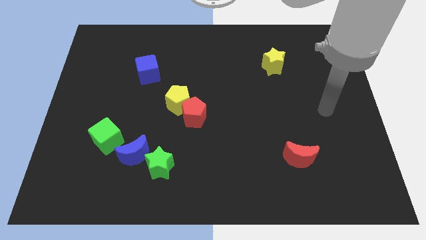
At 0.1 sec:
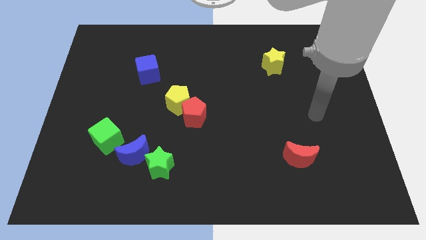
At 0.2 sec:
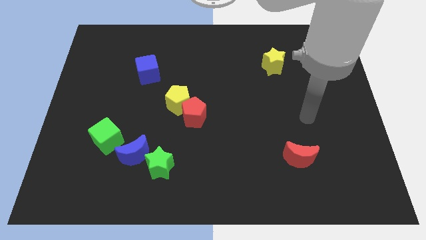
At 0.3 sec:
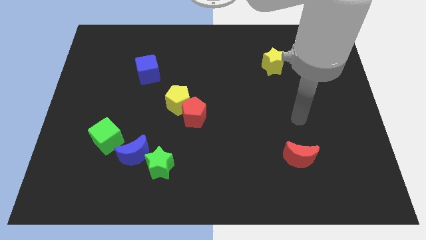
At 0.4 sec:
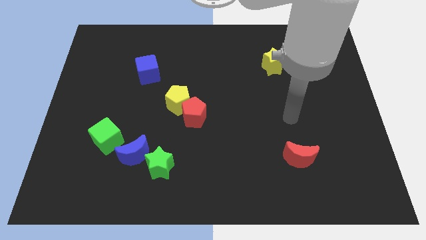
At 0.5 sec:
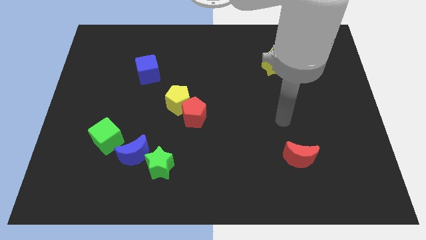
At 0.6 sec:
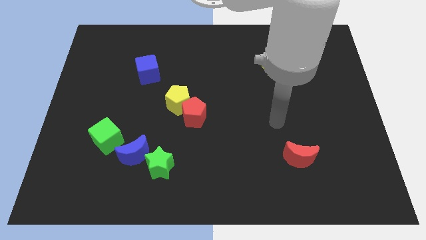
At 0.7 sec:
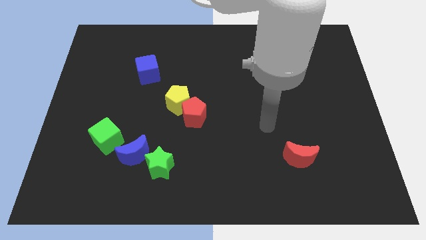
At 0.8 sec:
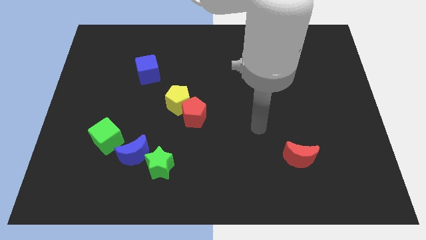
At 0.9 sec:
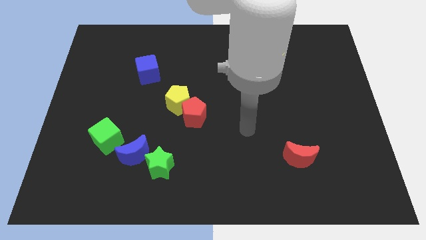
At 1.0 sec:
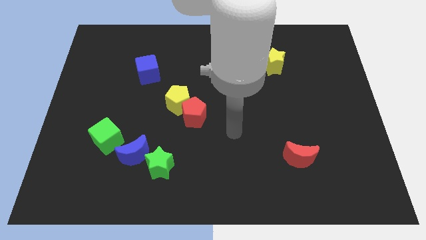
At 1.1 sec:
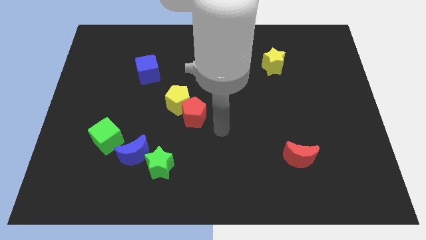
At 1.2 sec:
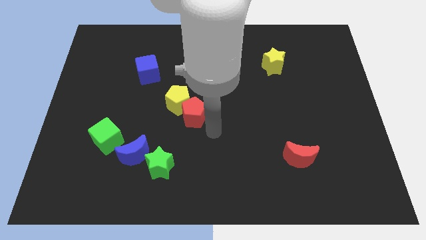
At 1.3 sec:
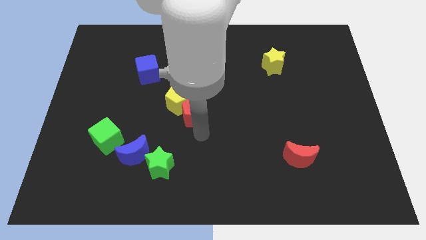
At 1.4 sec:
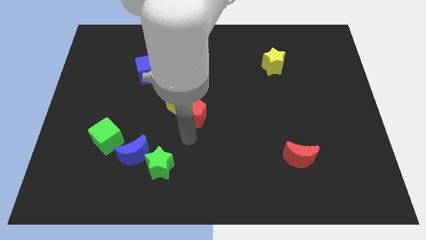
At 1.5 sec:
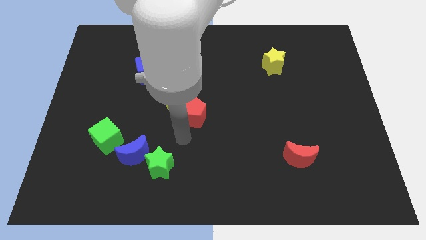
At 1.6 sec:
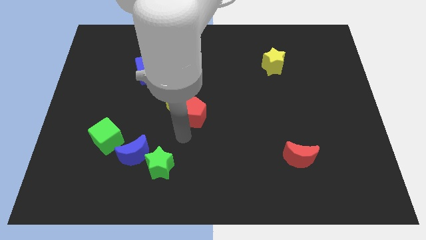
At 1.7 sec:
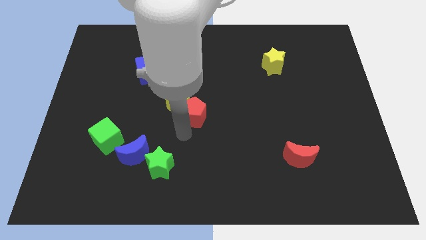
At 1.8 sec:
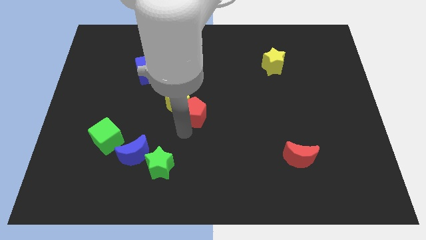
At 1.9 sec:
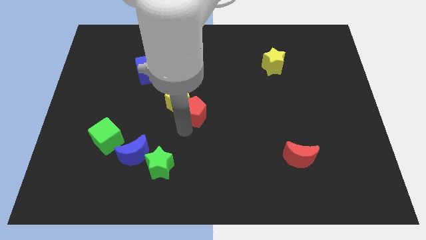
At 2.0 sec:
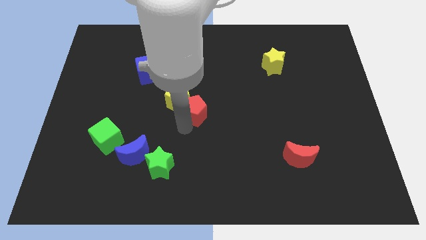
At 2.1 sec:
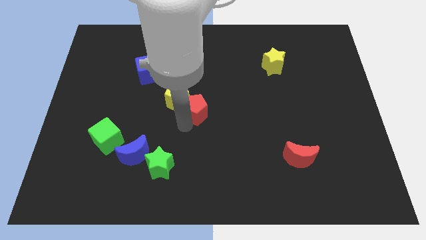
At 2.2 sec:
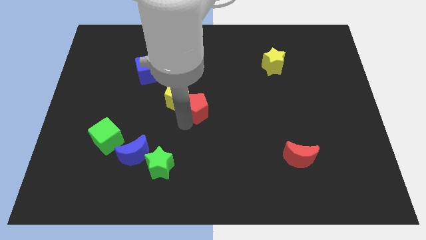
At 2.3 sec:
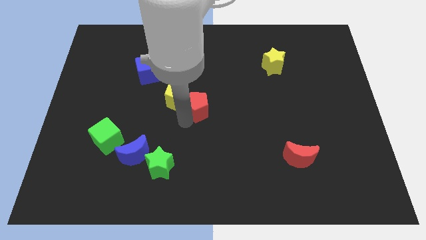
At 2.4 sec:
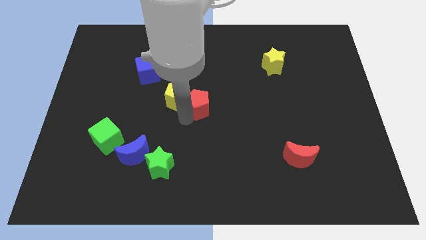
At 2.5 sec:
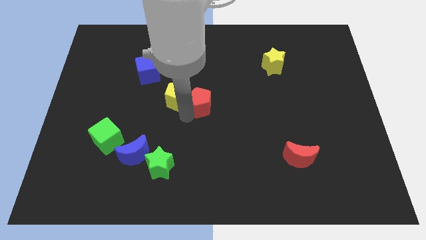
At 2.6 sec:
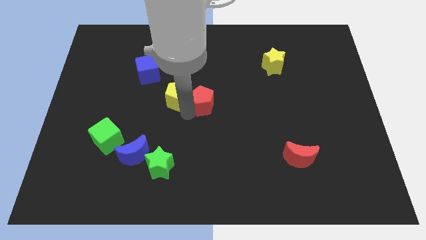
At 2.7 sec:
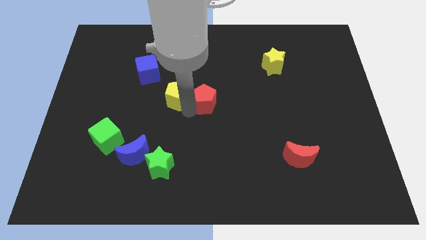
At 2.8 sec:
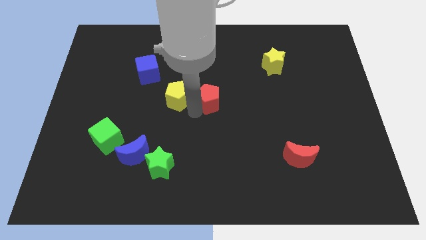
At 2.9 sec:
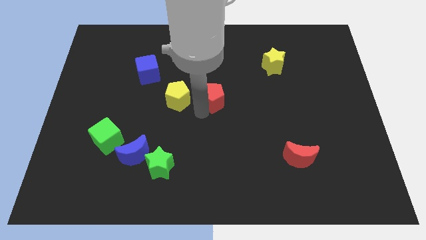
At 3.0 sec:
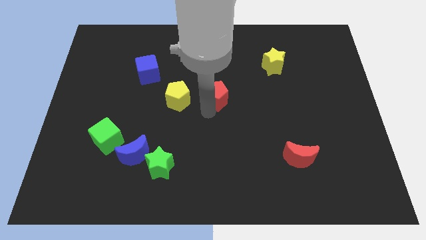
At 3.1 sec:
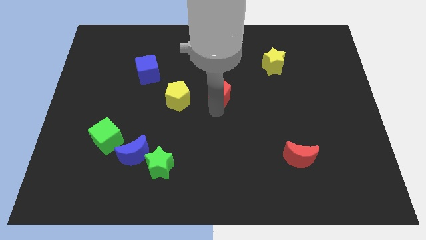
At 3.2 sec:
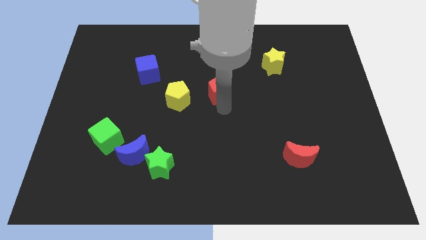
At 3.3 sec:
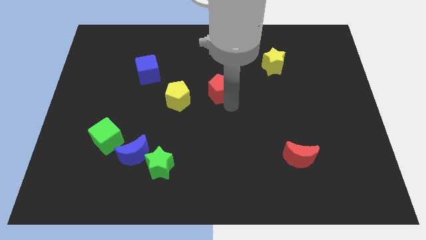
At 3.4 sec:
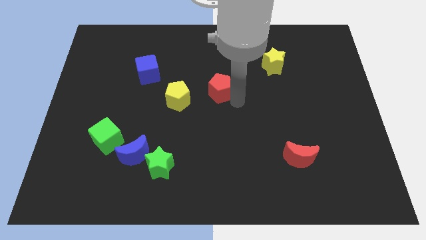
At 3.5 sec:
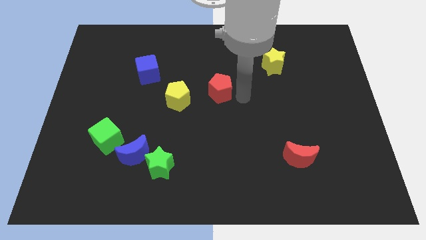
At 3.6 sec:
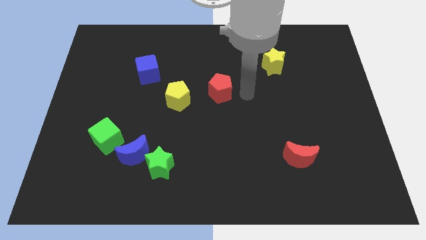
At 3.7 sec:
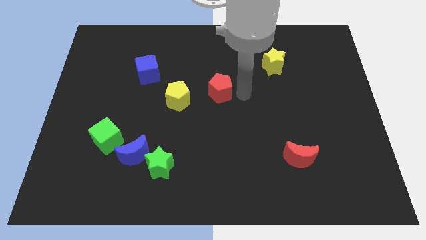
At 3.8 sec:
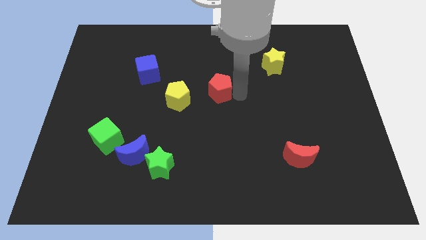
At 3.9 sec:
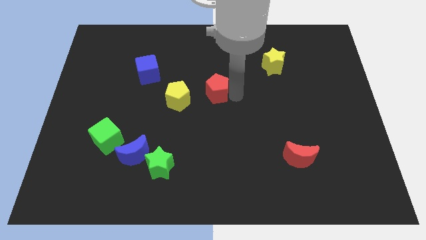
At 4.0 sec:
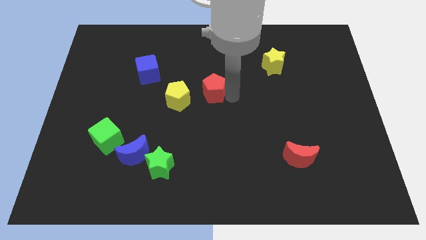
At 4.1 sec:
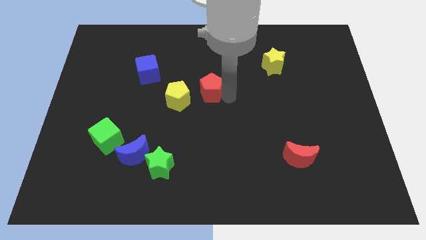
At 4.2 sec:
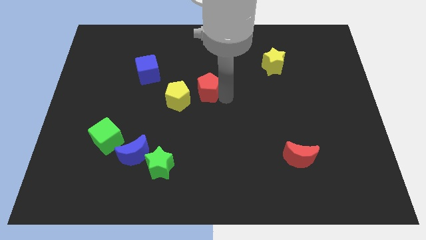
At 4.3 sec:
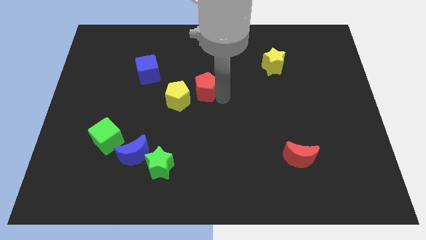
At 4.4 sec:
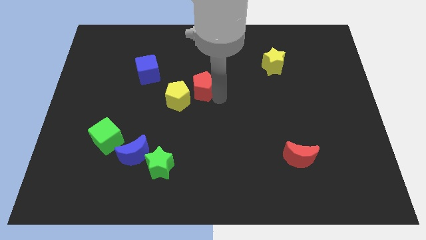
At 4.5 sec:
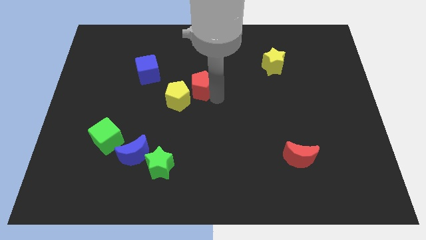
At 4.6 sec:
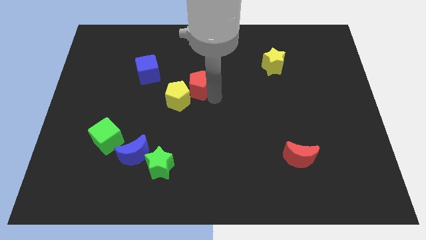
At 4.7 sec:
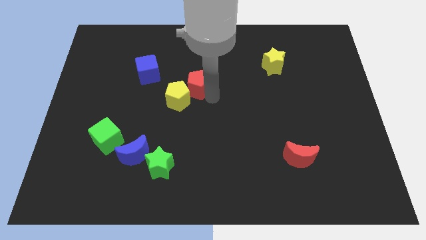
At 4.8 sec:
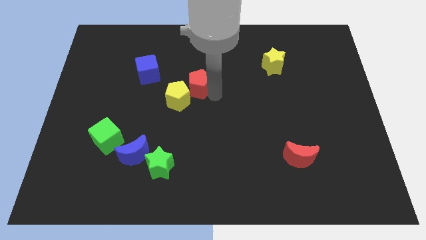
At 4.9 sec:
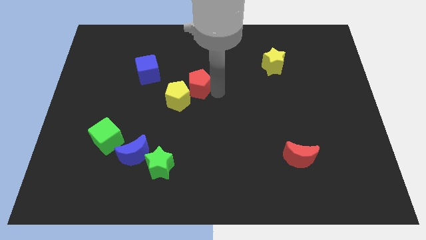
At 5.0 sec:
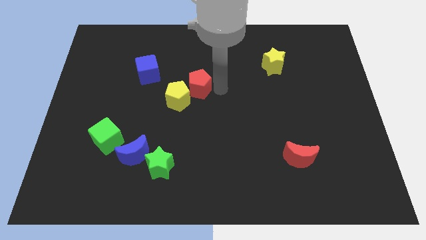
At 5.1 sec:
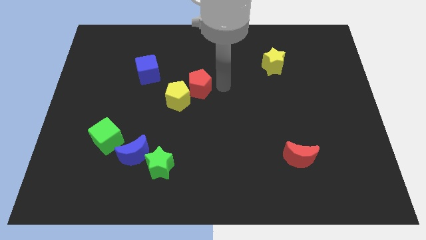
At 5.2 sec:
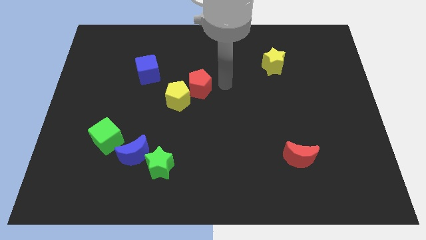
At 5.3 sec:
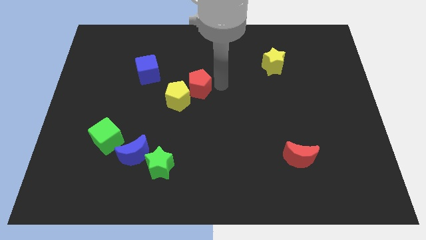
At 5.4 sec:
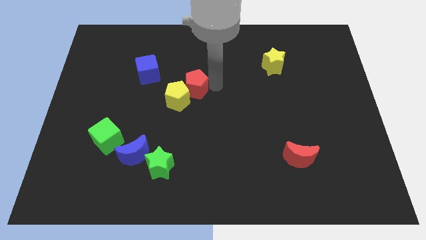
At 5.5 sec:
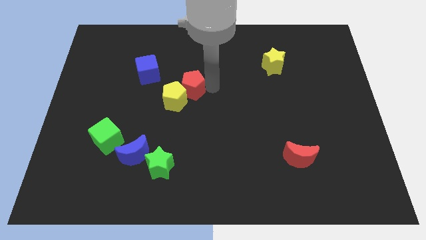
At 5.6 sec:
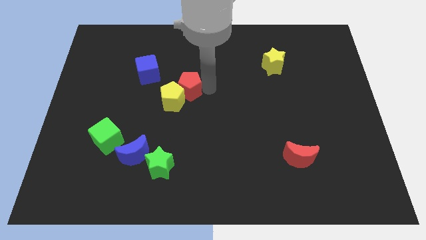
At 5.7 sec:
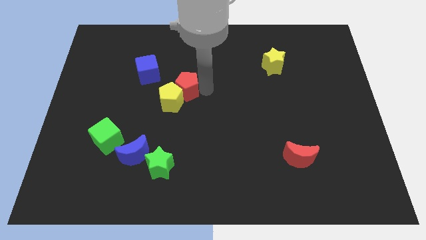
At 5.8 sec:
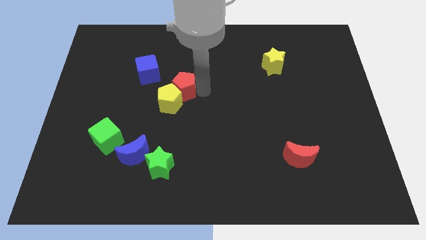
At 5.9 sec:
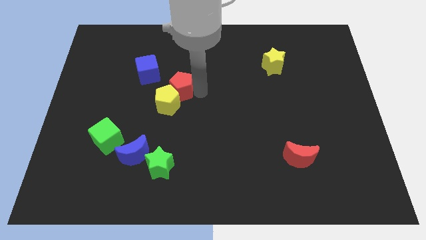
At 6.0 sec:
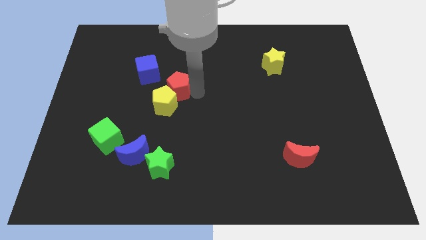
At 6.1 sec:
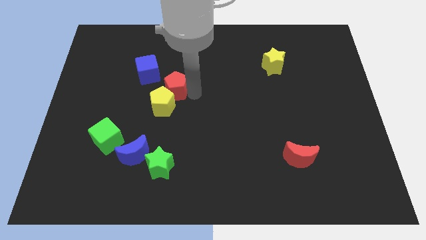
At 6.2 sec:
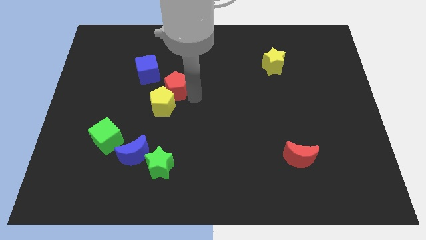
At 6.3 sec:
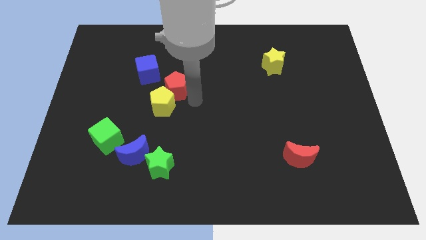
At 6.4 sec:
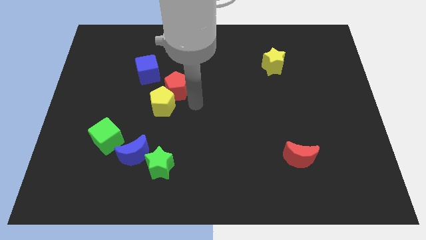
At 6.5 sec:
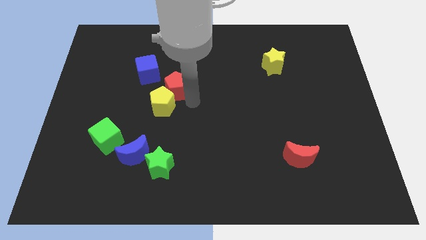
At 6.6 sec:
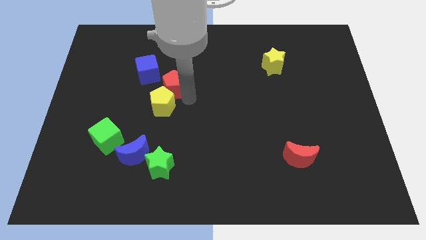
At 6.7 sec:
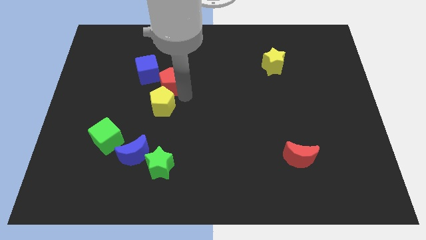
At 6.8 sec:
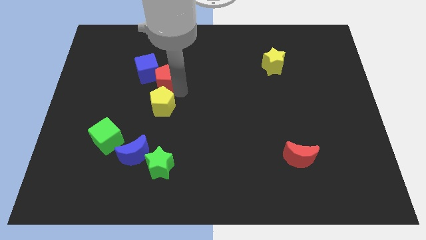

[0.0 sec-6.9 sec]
slide the red pentagon next to the blue cube
